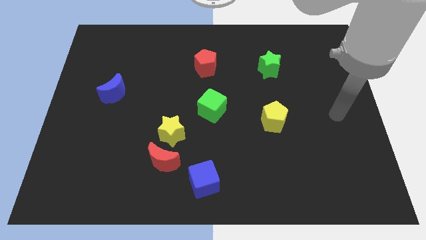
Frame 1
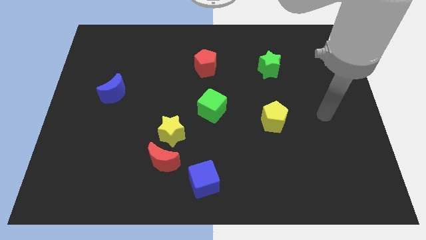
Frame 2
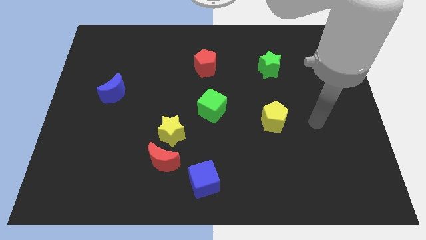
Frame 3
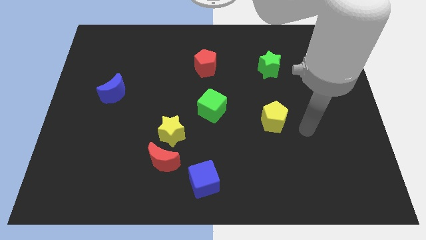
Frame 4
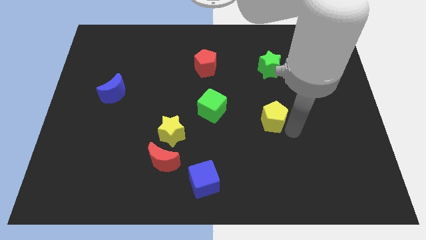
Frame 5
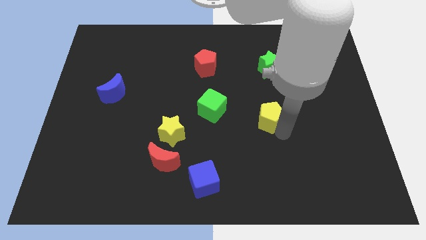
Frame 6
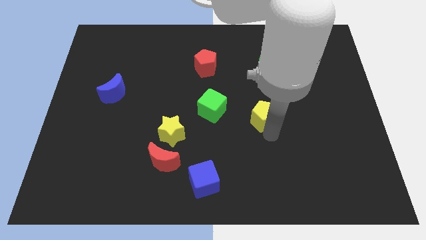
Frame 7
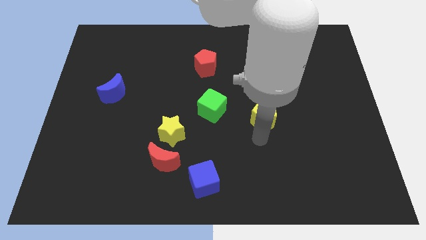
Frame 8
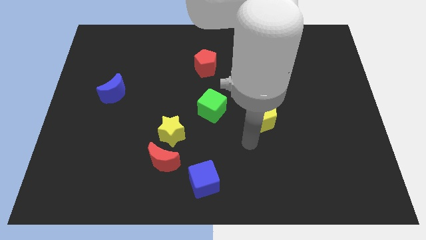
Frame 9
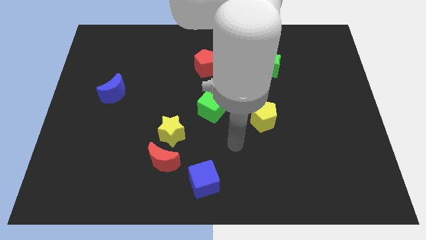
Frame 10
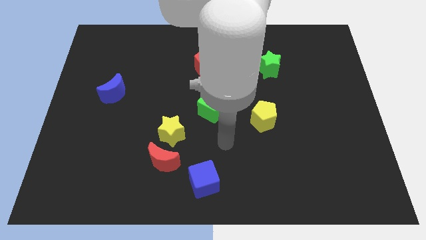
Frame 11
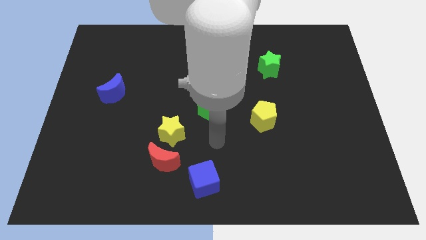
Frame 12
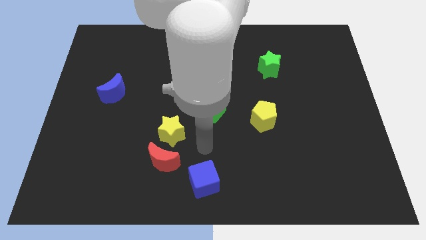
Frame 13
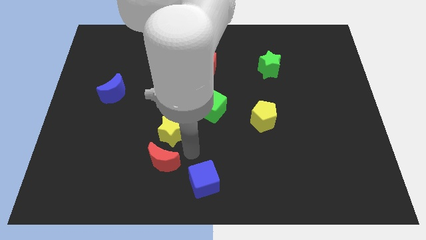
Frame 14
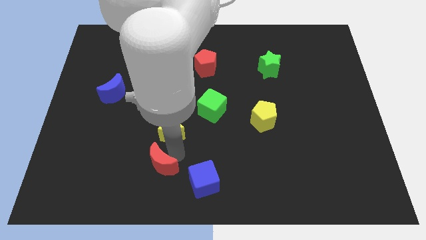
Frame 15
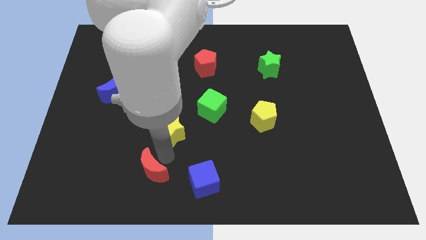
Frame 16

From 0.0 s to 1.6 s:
separate the yellow star from the red moon

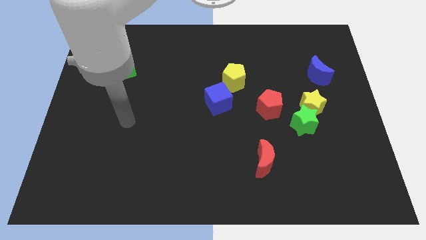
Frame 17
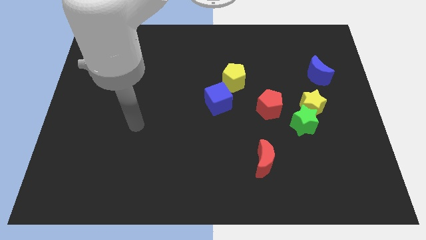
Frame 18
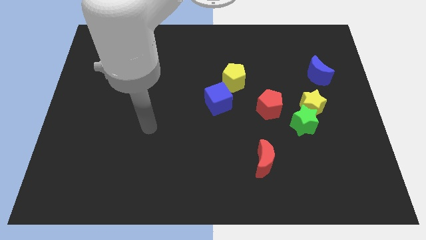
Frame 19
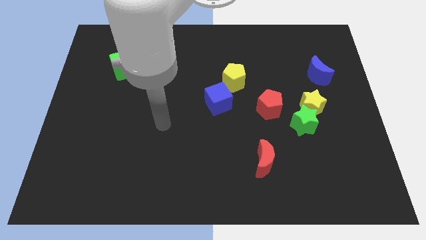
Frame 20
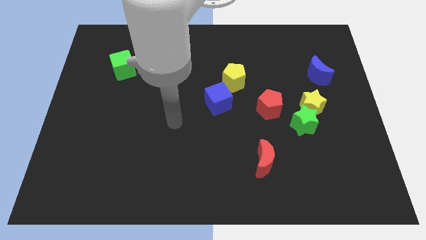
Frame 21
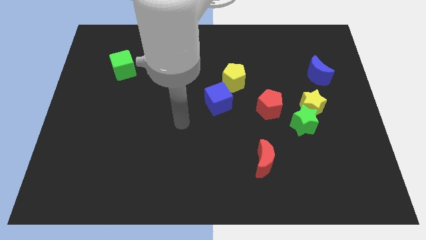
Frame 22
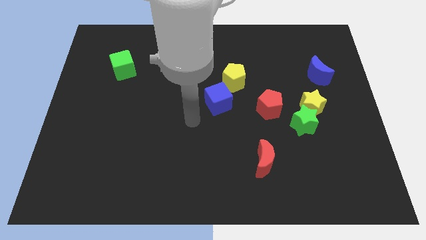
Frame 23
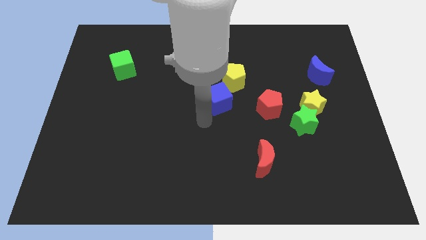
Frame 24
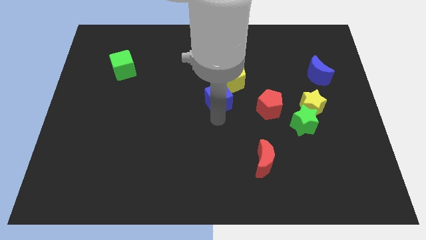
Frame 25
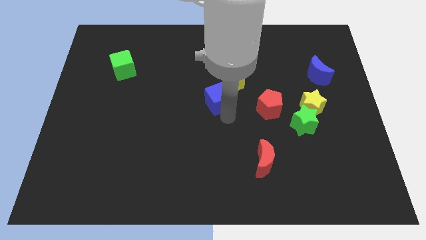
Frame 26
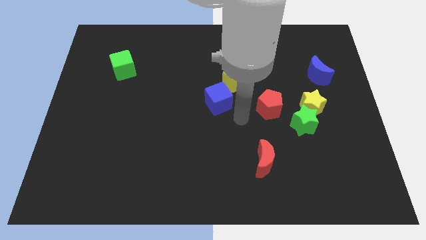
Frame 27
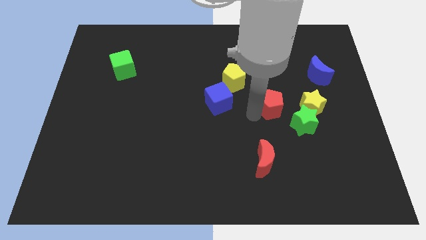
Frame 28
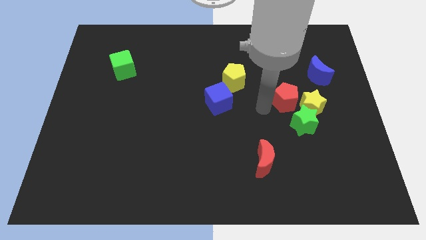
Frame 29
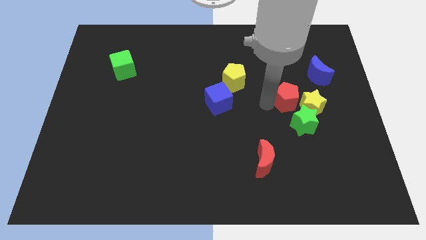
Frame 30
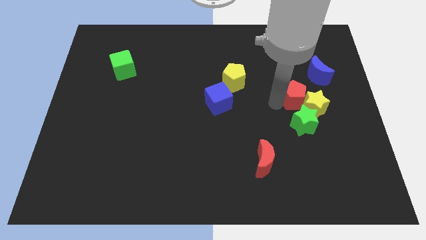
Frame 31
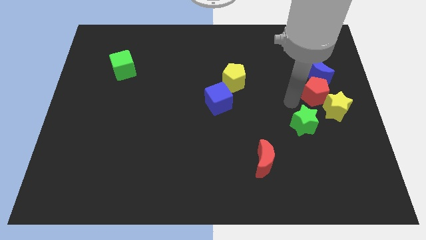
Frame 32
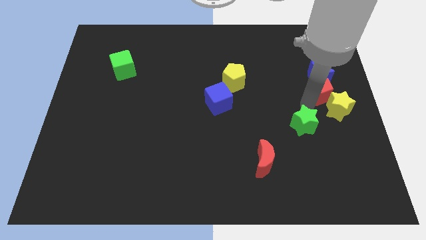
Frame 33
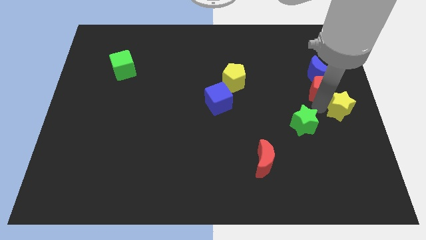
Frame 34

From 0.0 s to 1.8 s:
move the green star away from the yellow star and red pentagon

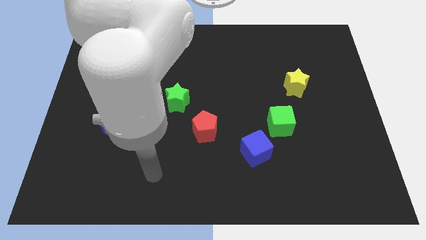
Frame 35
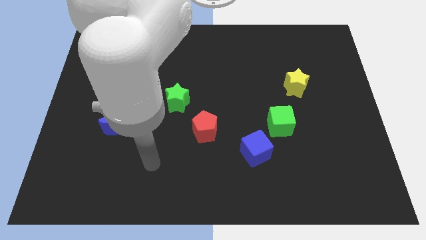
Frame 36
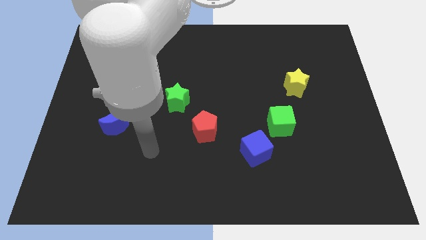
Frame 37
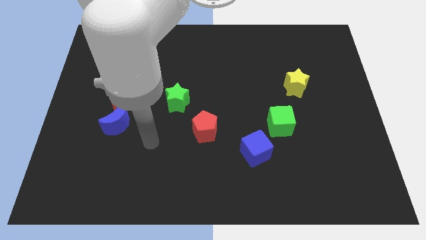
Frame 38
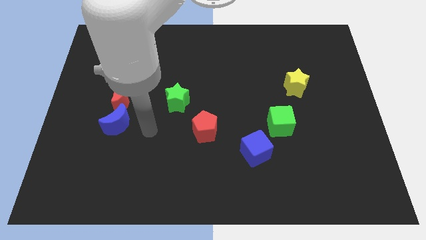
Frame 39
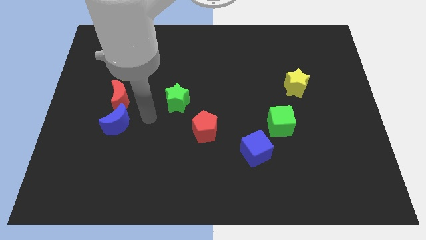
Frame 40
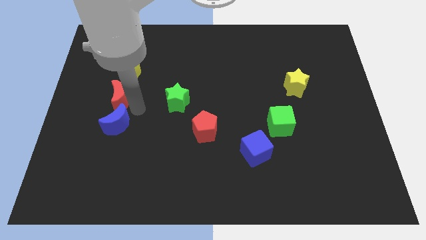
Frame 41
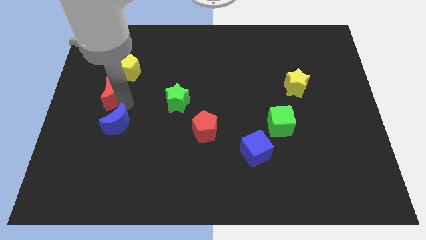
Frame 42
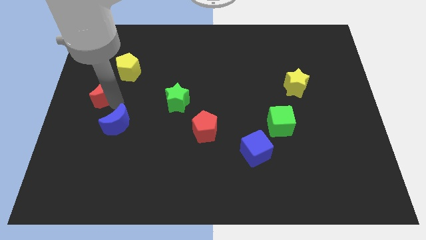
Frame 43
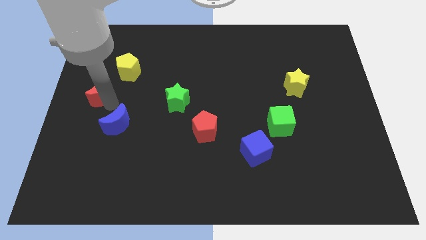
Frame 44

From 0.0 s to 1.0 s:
move the blue moon away from the red moon

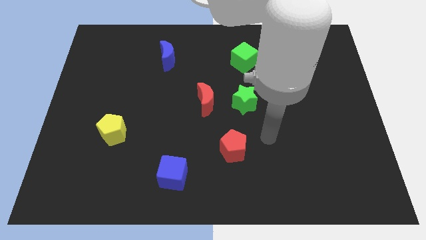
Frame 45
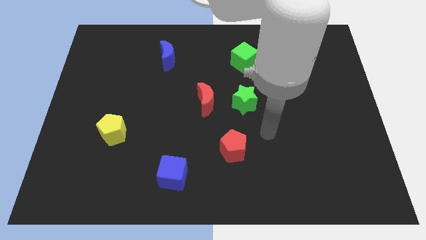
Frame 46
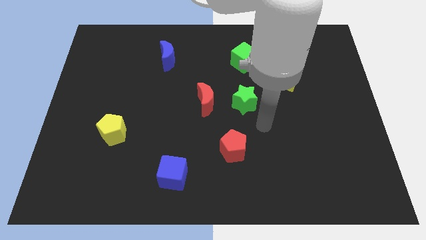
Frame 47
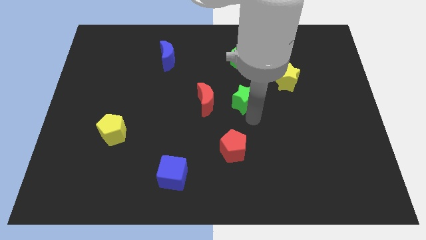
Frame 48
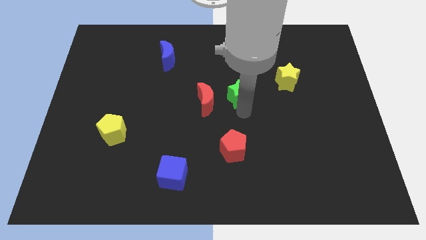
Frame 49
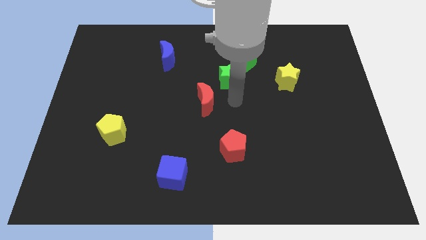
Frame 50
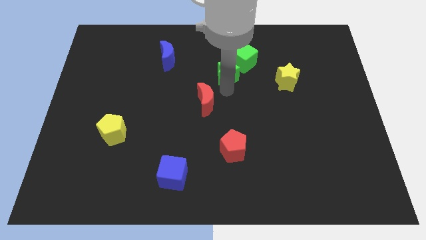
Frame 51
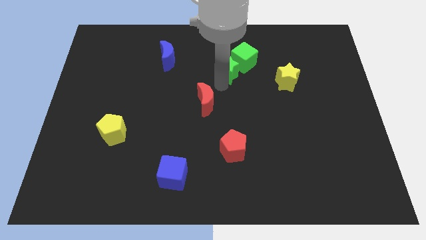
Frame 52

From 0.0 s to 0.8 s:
separate the red moon from the green star

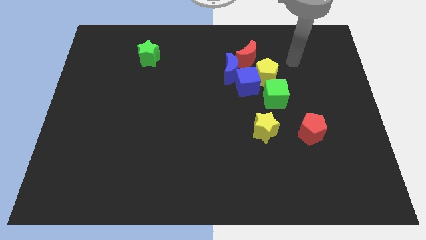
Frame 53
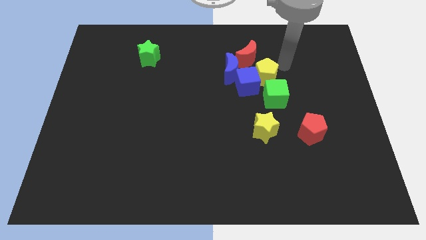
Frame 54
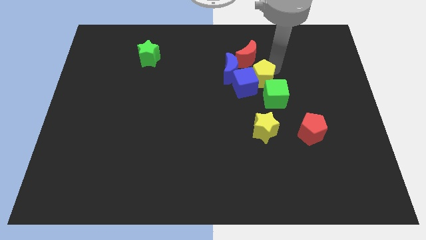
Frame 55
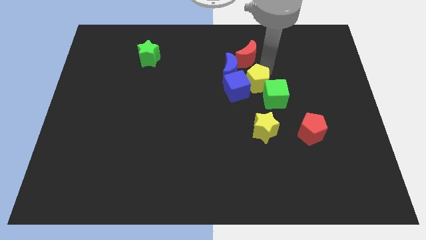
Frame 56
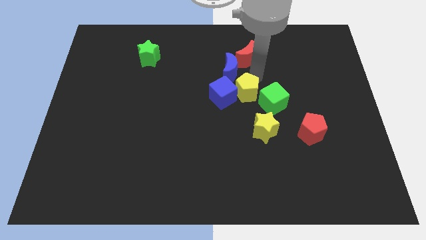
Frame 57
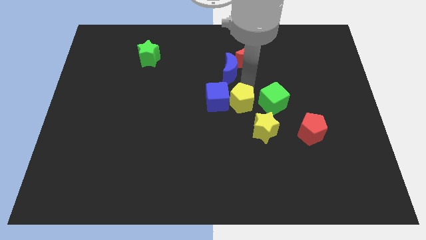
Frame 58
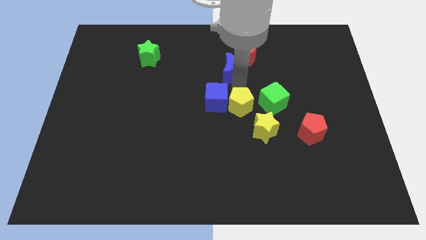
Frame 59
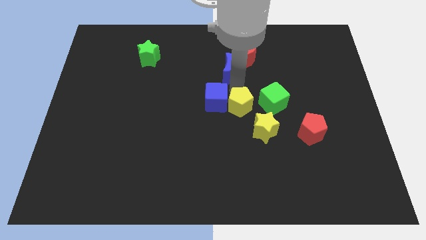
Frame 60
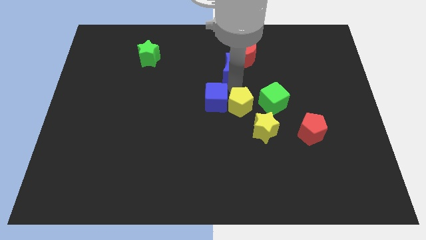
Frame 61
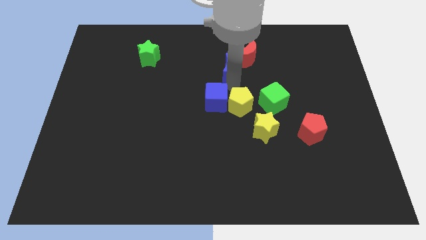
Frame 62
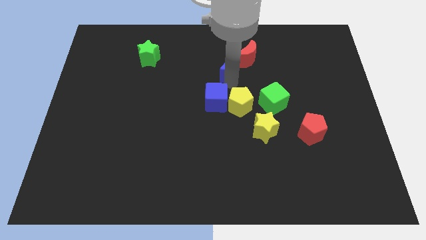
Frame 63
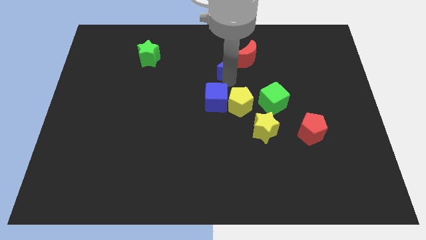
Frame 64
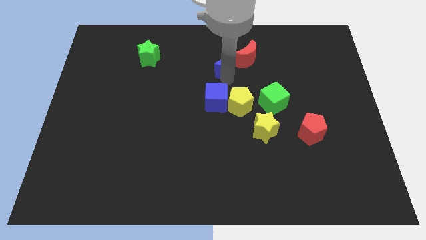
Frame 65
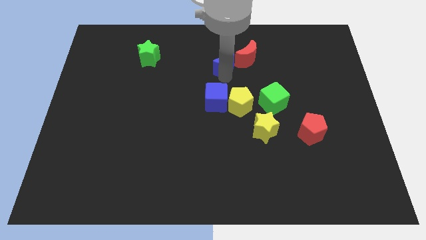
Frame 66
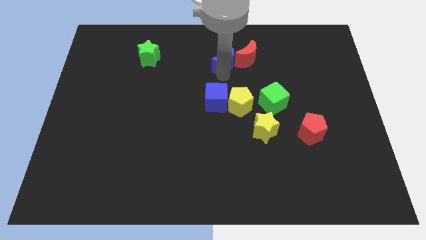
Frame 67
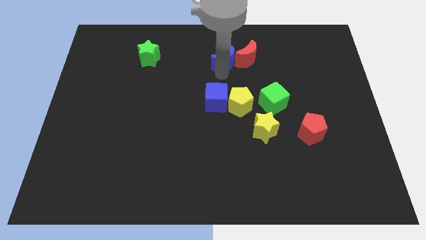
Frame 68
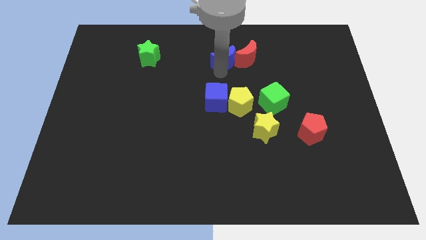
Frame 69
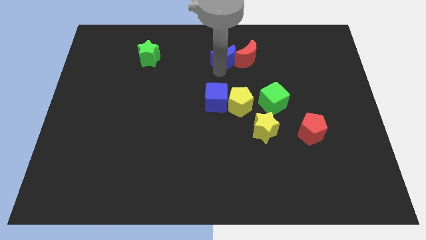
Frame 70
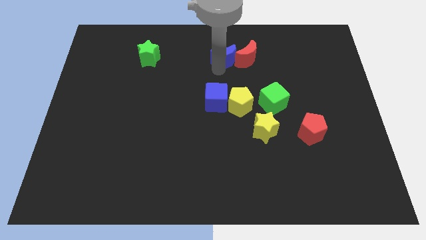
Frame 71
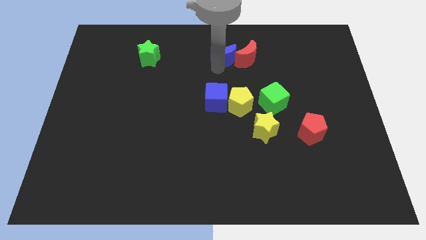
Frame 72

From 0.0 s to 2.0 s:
separate the blue moon from the blue cube, red moon, and yellow pentagon

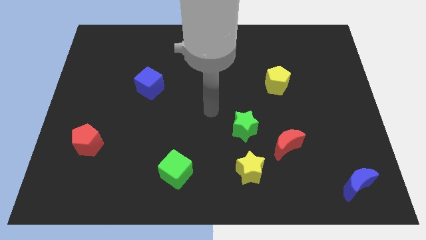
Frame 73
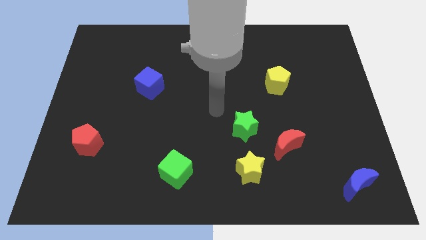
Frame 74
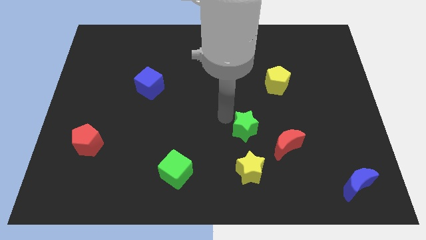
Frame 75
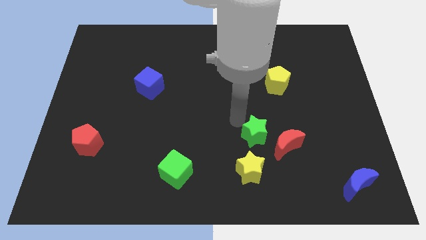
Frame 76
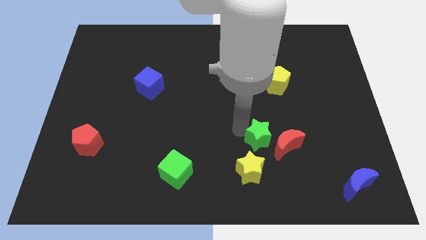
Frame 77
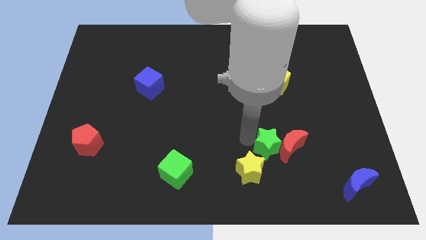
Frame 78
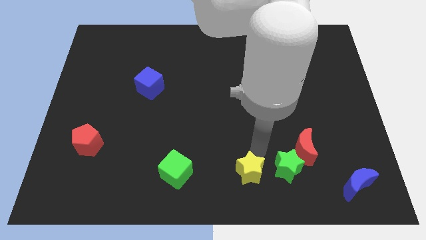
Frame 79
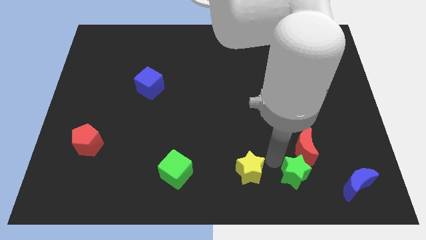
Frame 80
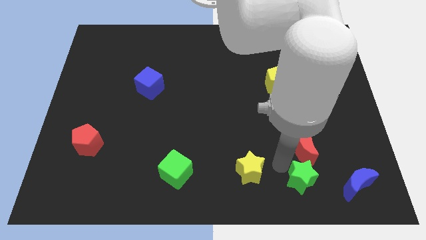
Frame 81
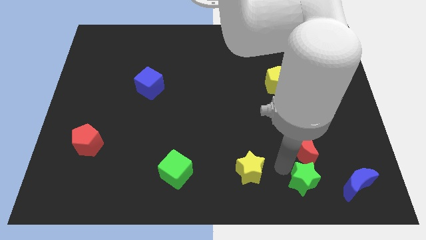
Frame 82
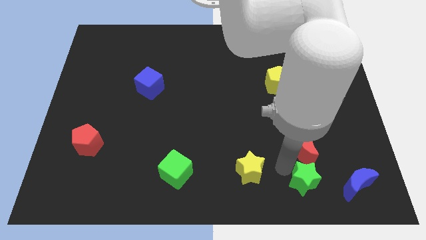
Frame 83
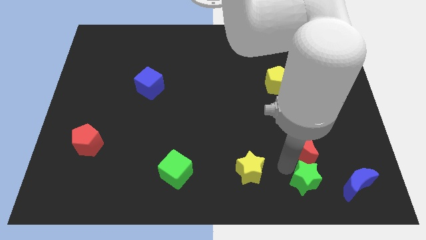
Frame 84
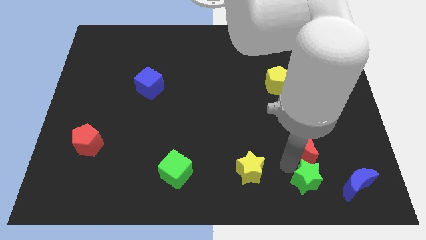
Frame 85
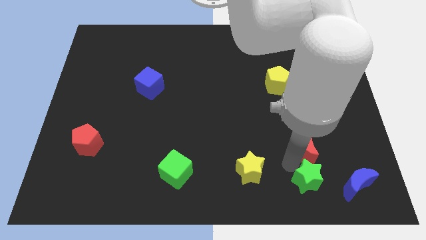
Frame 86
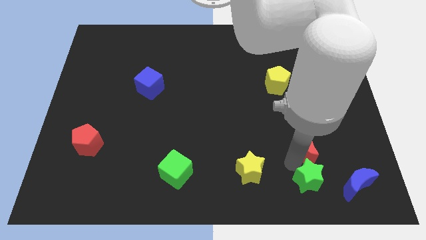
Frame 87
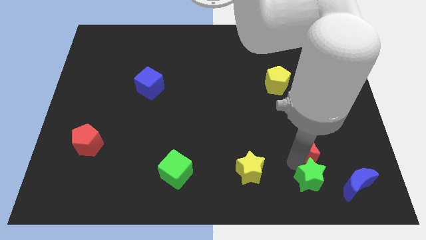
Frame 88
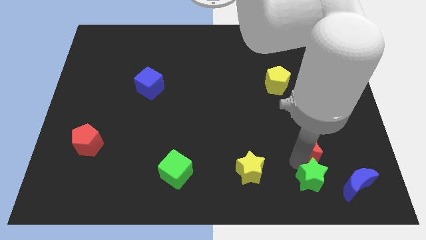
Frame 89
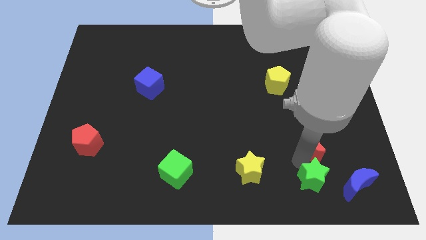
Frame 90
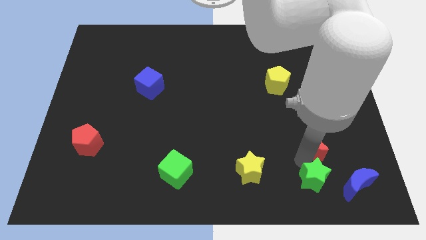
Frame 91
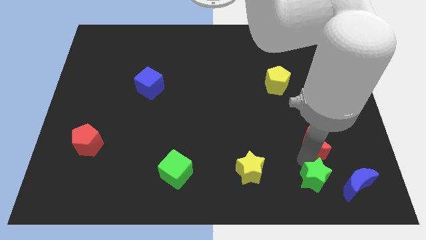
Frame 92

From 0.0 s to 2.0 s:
separate the red moon from the green star and yellow star

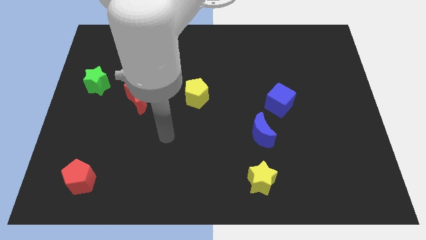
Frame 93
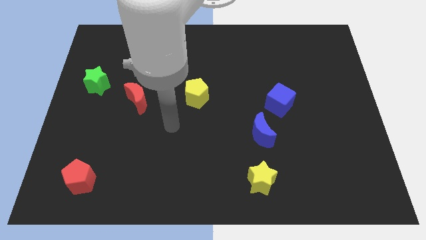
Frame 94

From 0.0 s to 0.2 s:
move the red moon away from the green cube
